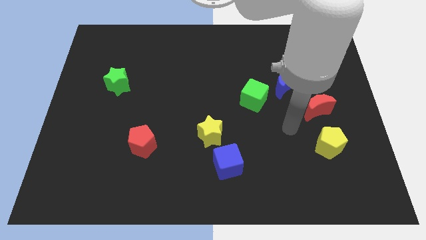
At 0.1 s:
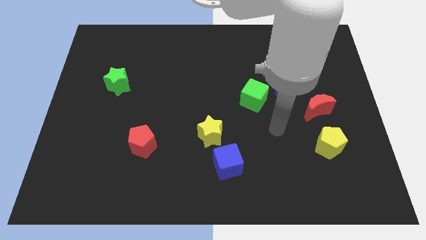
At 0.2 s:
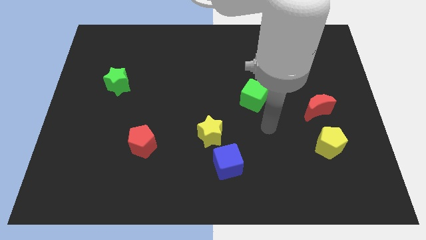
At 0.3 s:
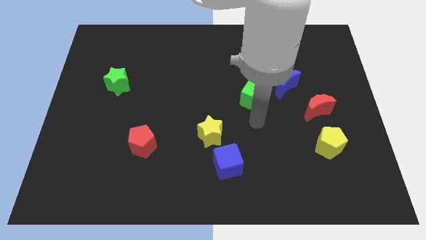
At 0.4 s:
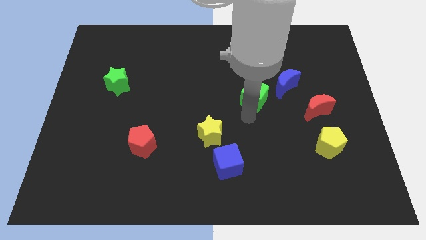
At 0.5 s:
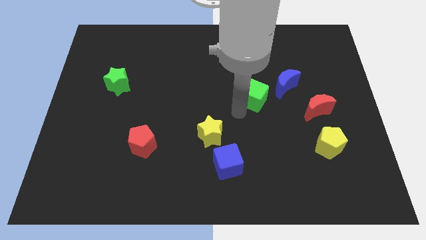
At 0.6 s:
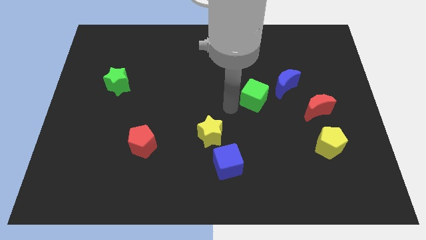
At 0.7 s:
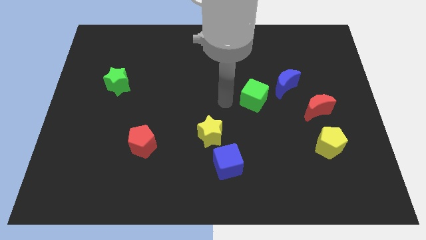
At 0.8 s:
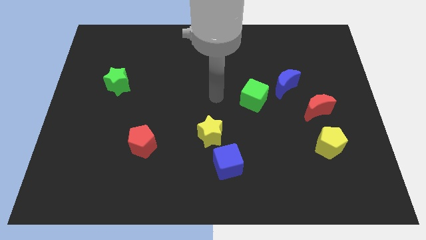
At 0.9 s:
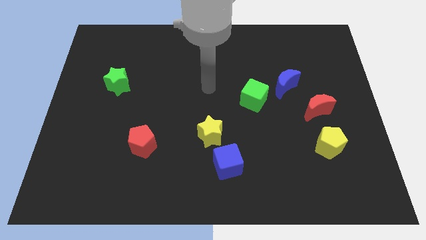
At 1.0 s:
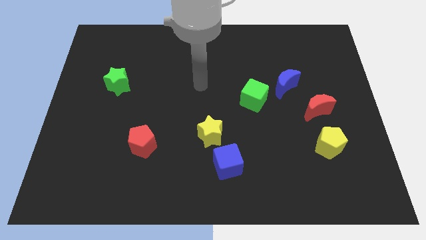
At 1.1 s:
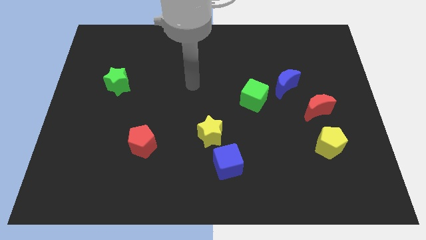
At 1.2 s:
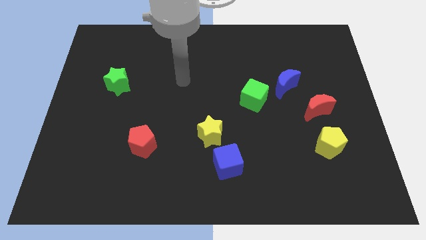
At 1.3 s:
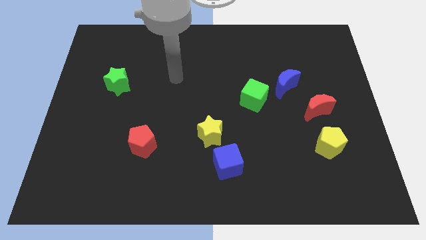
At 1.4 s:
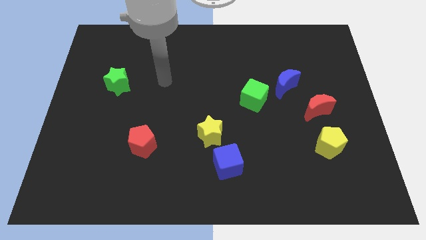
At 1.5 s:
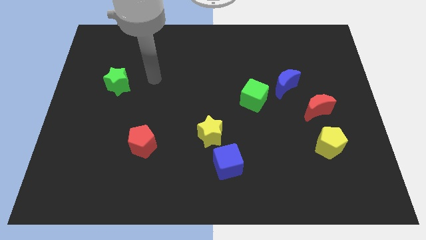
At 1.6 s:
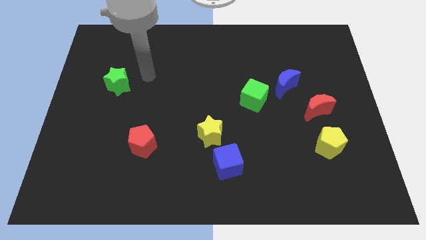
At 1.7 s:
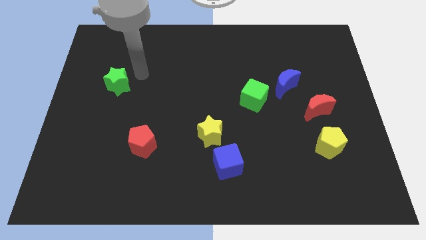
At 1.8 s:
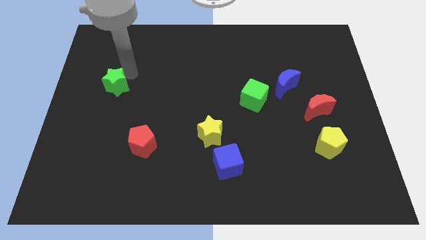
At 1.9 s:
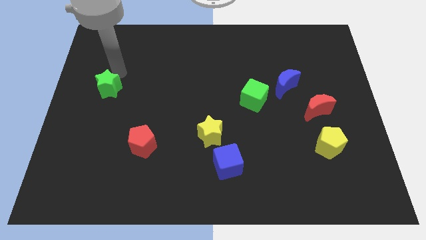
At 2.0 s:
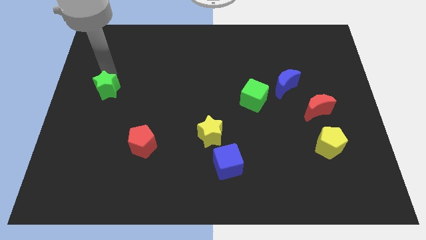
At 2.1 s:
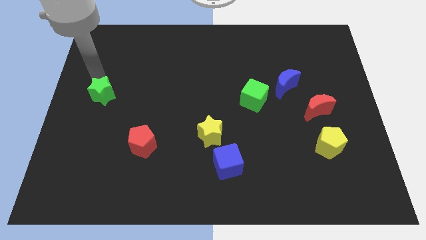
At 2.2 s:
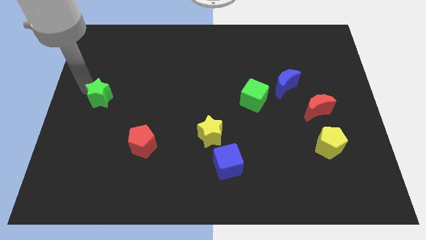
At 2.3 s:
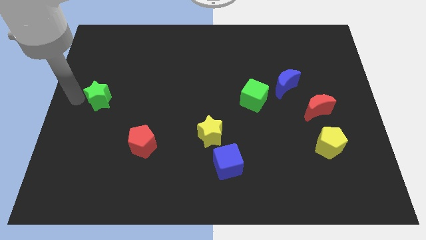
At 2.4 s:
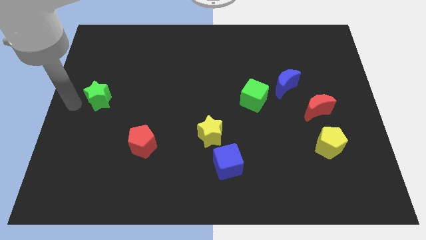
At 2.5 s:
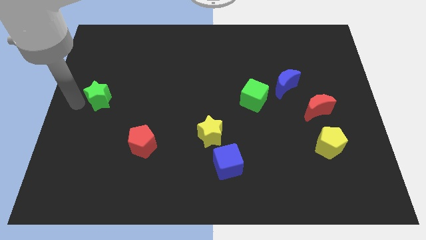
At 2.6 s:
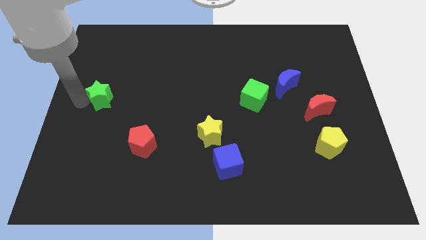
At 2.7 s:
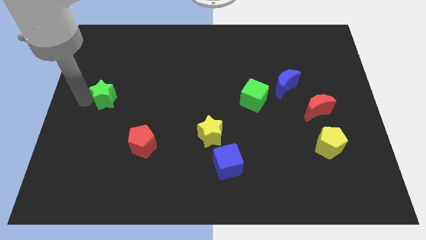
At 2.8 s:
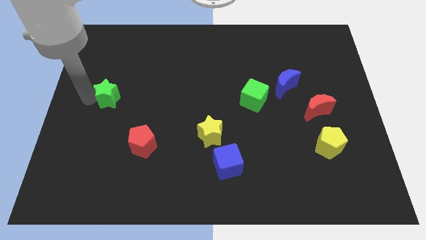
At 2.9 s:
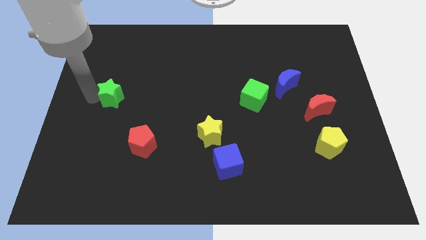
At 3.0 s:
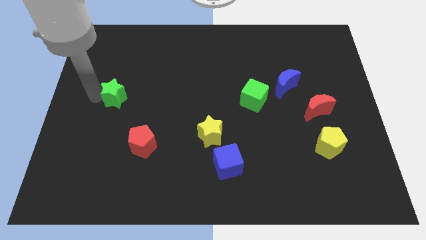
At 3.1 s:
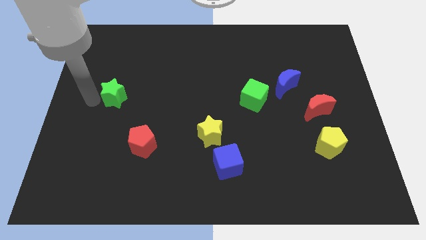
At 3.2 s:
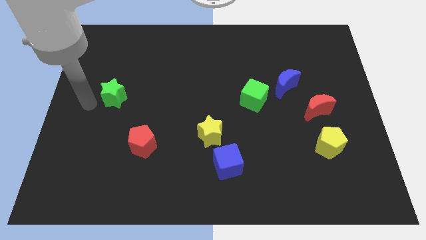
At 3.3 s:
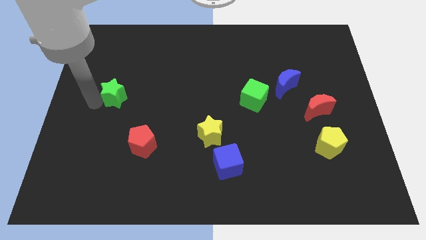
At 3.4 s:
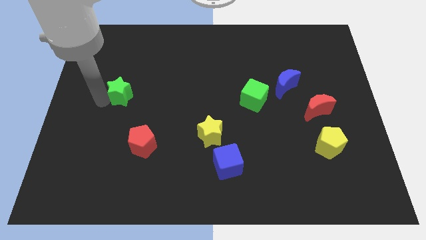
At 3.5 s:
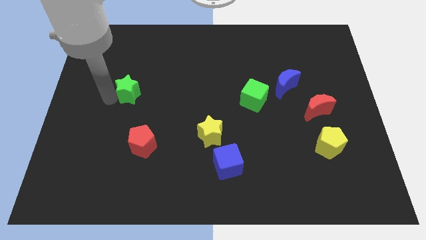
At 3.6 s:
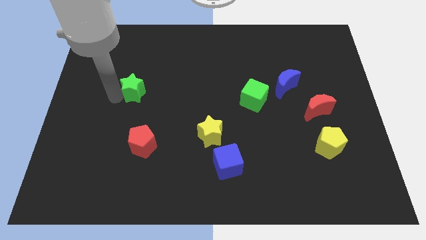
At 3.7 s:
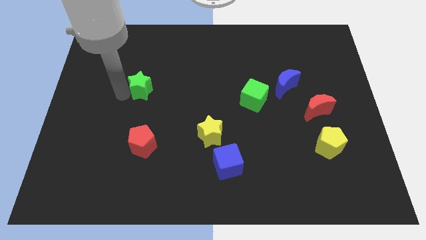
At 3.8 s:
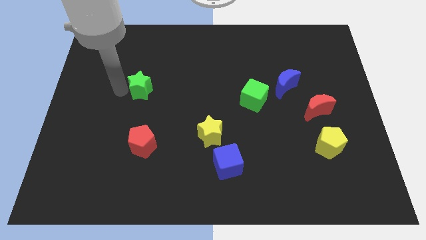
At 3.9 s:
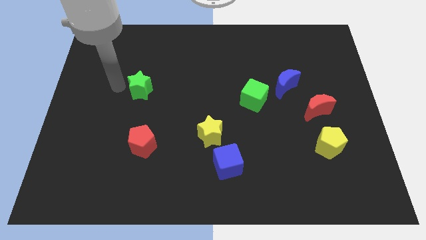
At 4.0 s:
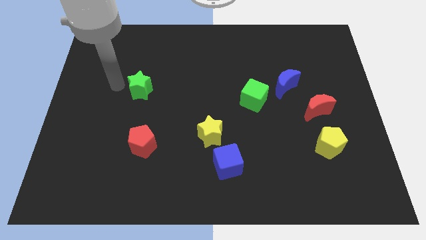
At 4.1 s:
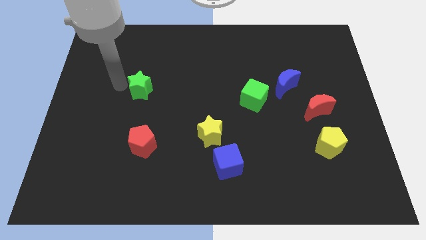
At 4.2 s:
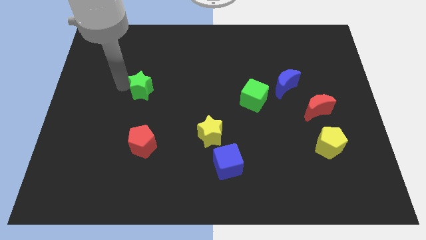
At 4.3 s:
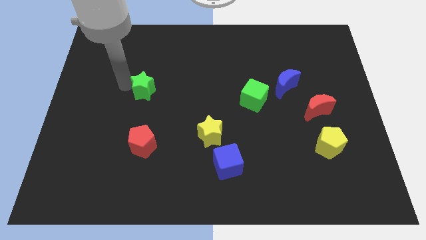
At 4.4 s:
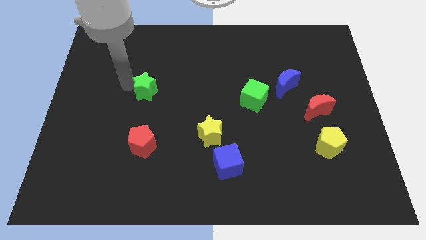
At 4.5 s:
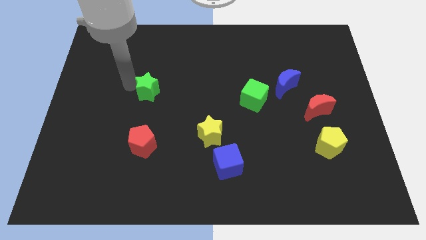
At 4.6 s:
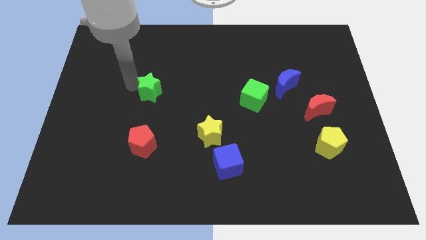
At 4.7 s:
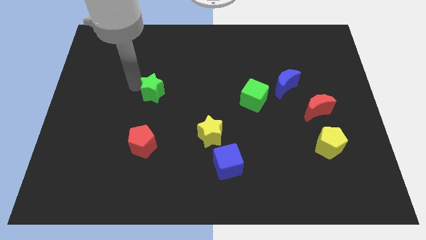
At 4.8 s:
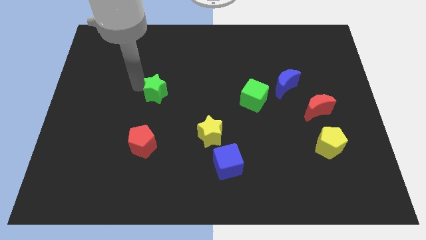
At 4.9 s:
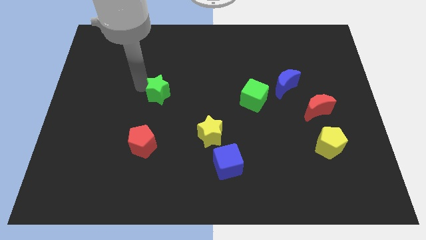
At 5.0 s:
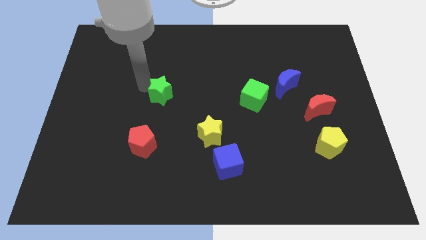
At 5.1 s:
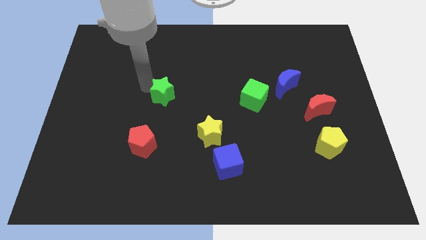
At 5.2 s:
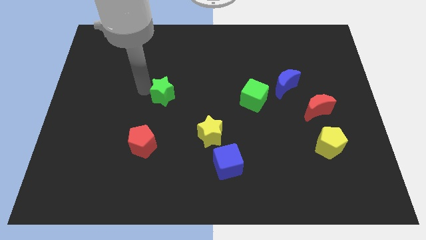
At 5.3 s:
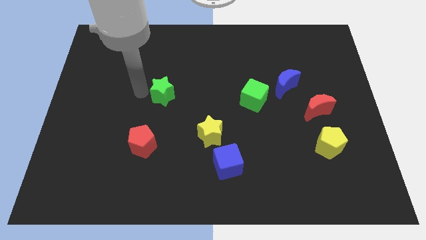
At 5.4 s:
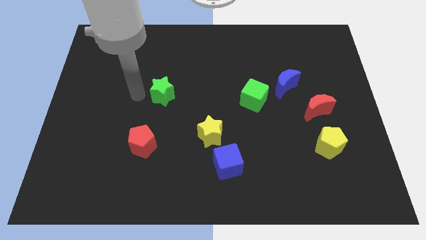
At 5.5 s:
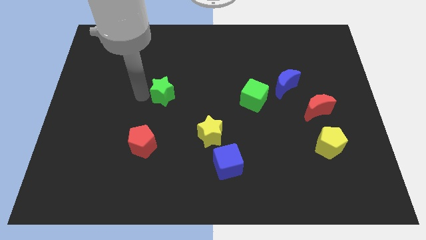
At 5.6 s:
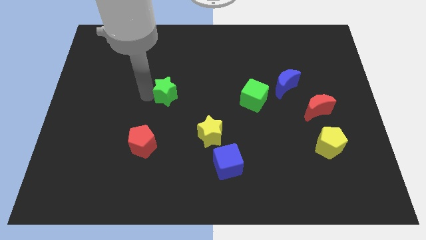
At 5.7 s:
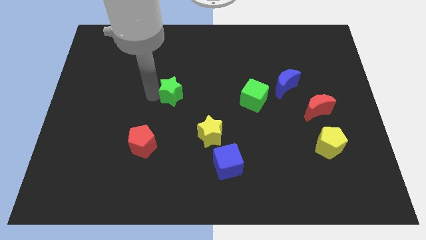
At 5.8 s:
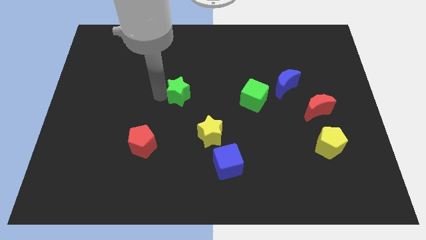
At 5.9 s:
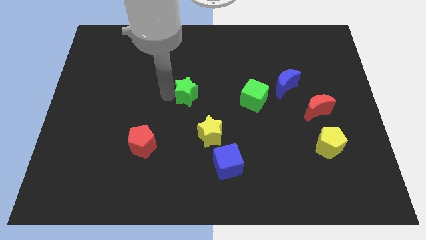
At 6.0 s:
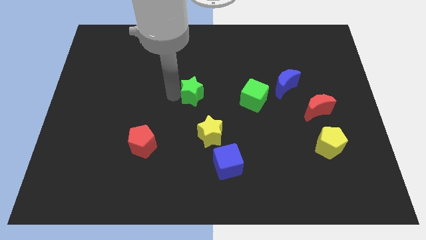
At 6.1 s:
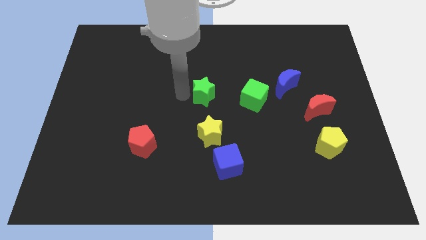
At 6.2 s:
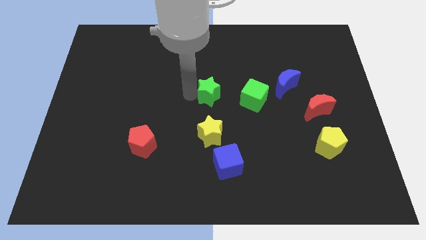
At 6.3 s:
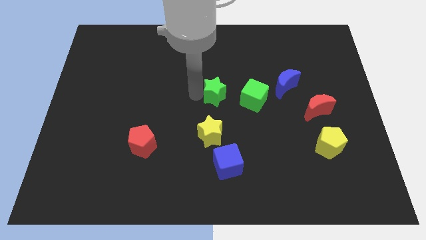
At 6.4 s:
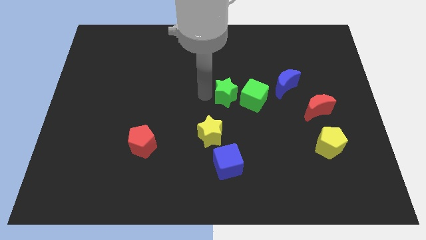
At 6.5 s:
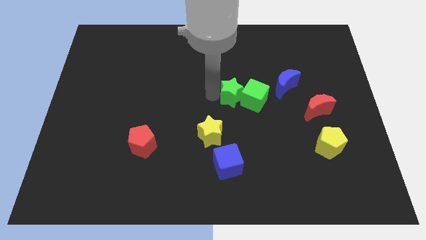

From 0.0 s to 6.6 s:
move the green star towards the green cube
